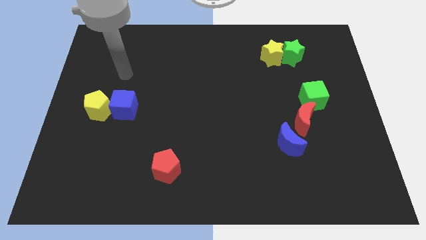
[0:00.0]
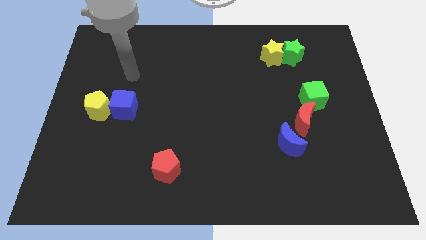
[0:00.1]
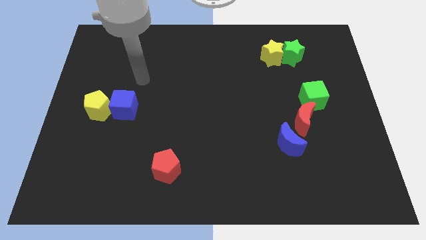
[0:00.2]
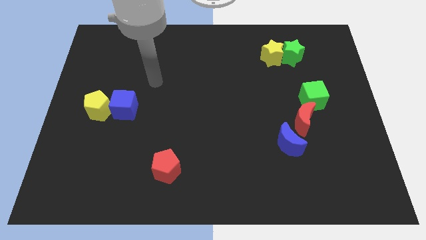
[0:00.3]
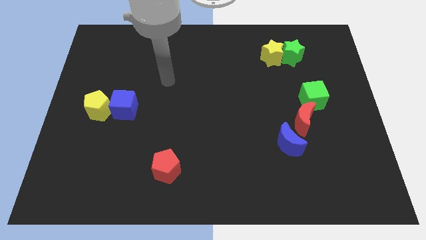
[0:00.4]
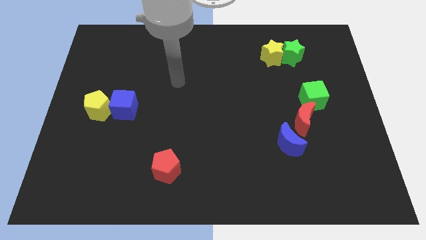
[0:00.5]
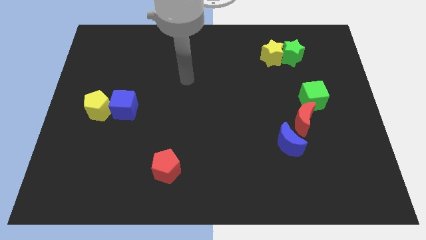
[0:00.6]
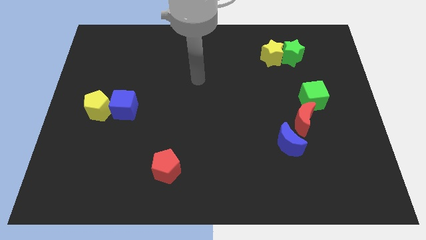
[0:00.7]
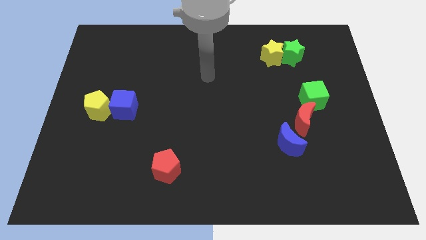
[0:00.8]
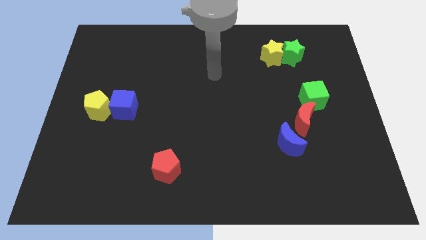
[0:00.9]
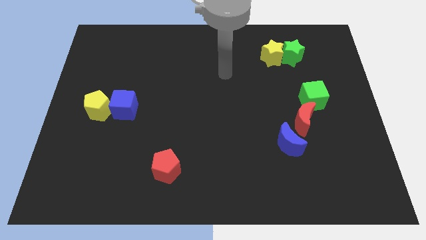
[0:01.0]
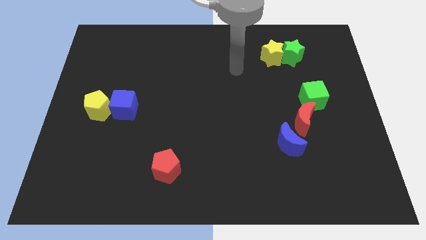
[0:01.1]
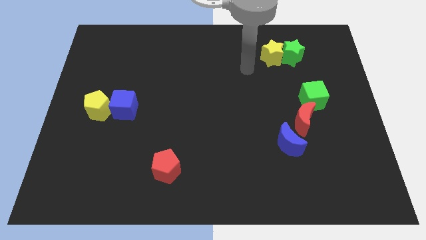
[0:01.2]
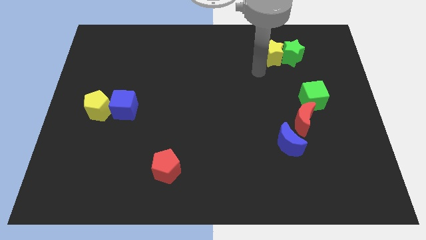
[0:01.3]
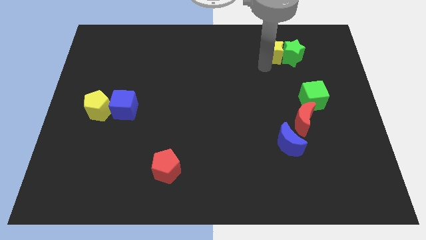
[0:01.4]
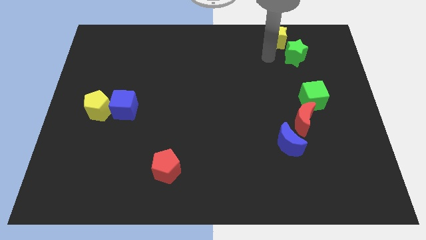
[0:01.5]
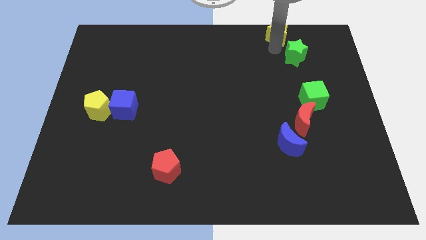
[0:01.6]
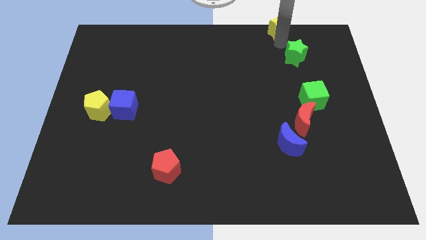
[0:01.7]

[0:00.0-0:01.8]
move the green star away from the yellow star

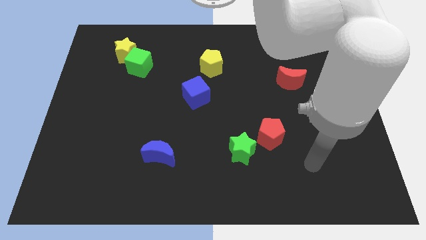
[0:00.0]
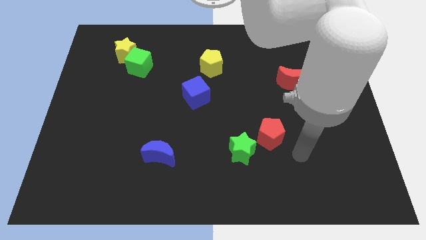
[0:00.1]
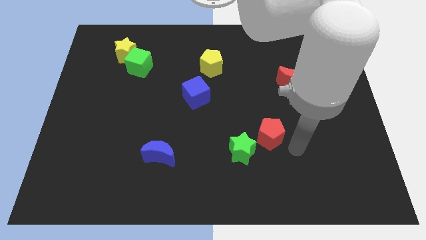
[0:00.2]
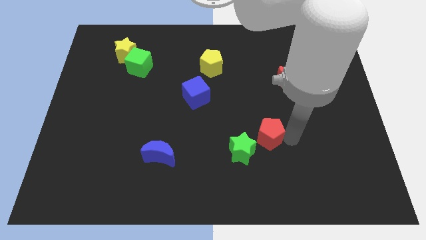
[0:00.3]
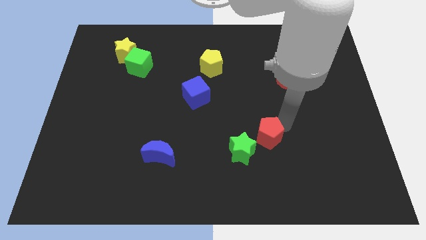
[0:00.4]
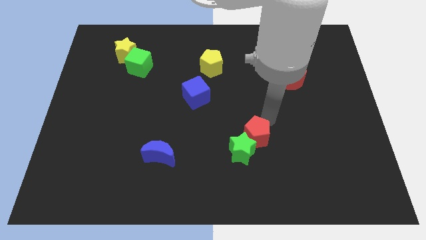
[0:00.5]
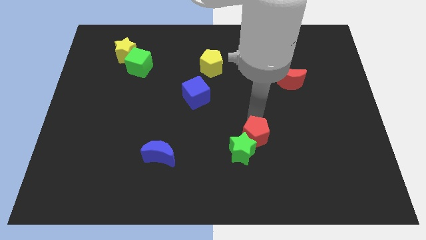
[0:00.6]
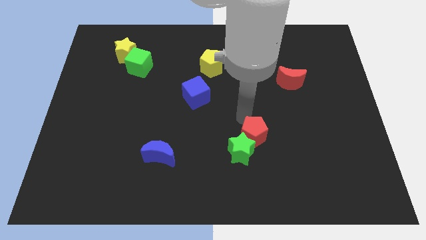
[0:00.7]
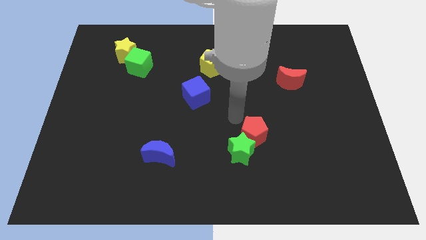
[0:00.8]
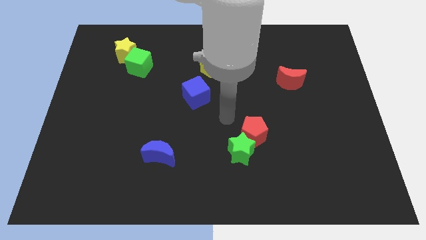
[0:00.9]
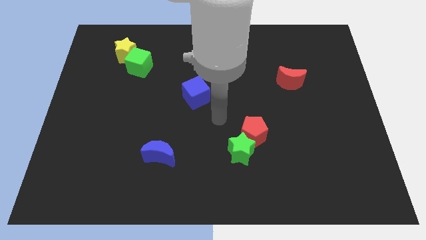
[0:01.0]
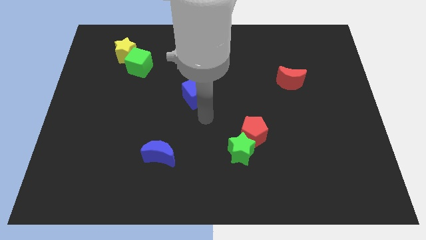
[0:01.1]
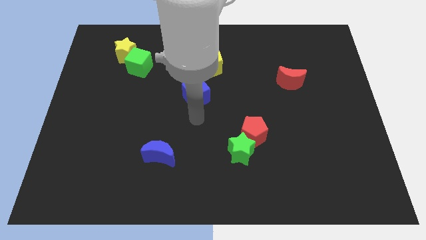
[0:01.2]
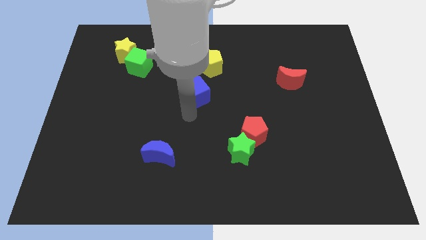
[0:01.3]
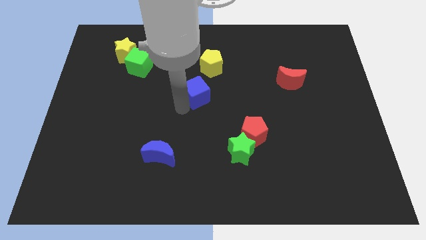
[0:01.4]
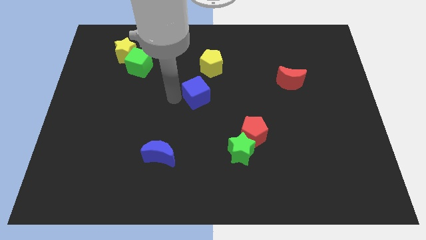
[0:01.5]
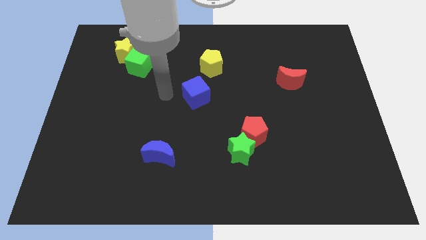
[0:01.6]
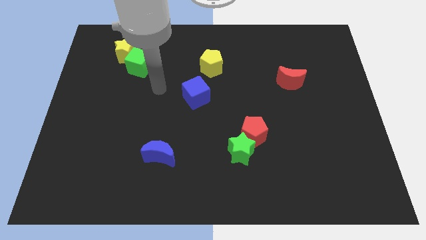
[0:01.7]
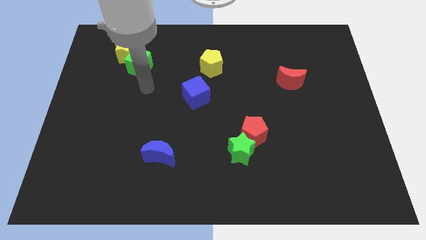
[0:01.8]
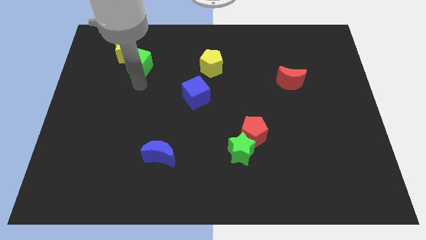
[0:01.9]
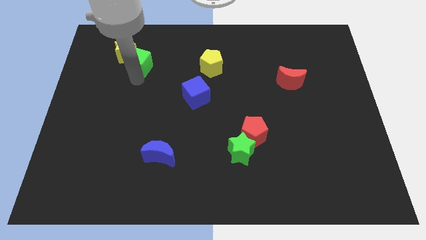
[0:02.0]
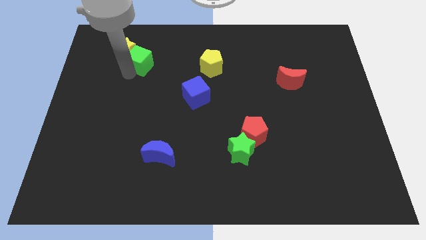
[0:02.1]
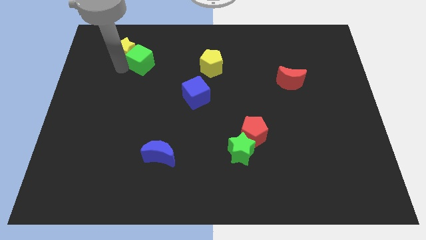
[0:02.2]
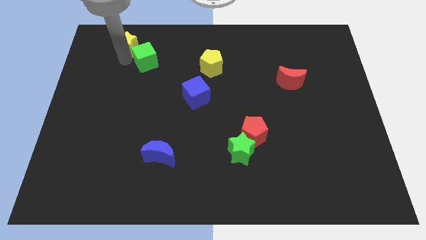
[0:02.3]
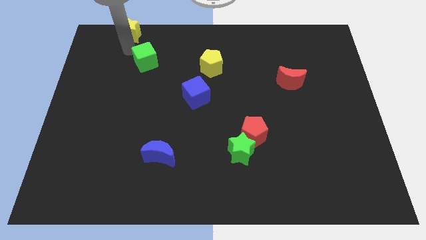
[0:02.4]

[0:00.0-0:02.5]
separate the green cube from the yellow star

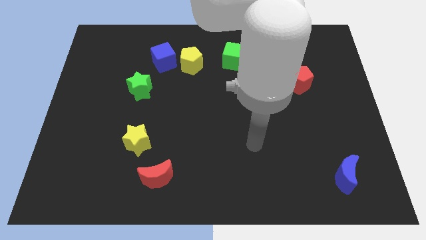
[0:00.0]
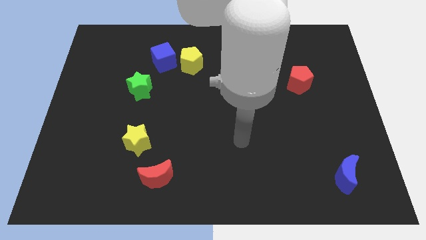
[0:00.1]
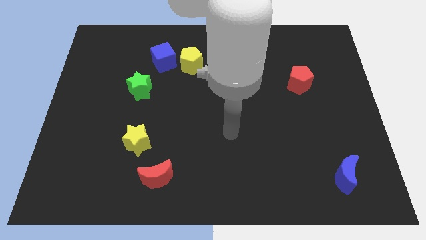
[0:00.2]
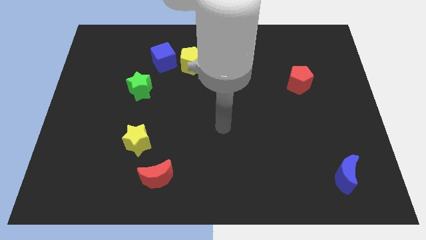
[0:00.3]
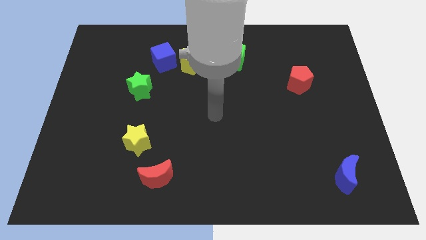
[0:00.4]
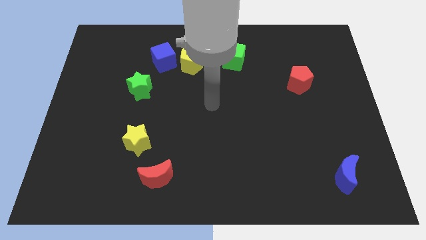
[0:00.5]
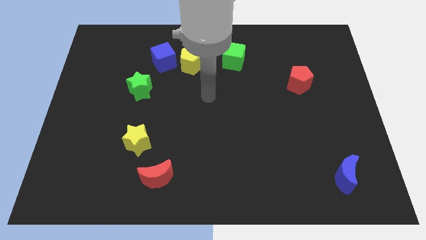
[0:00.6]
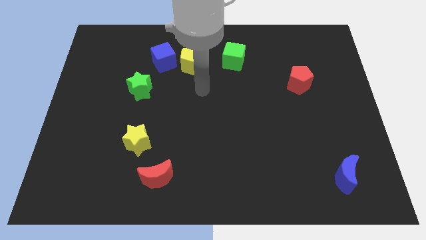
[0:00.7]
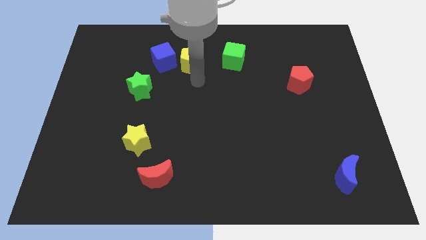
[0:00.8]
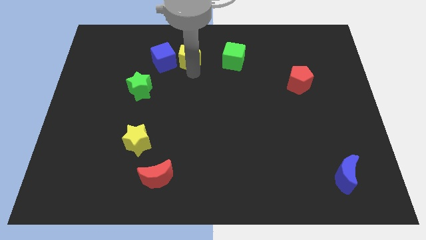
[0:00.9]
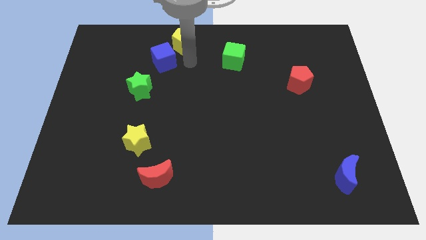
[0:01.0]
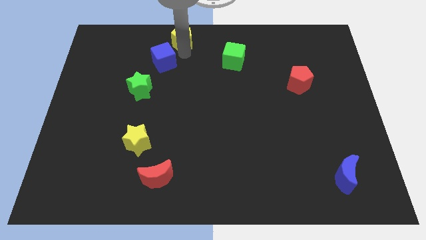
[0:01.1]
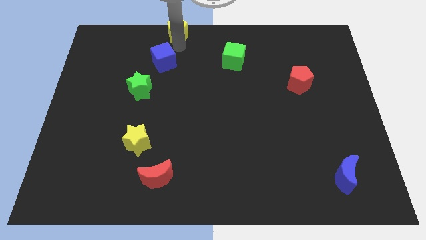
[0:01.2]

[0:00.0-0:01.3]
separate the blue cube from the yellow pentagon

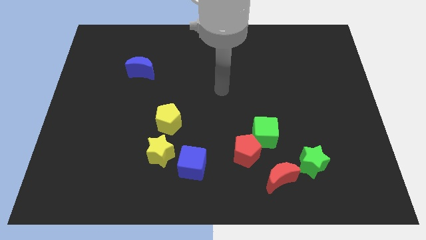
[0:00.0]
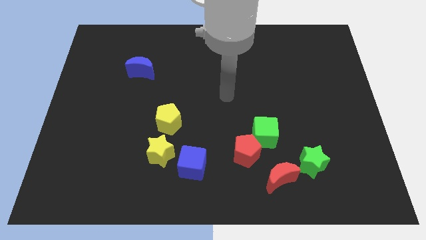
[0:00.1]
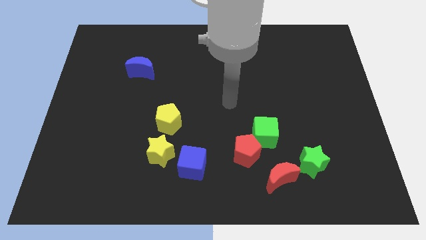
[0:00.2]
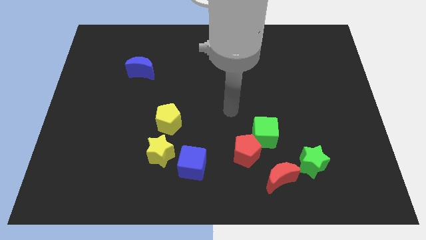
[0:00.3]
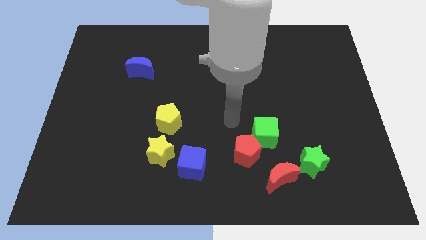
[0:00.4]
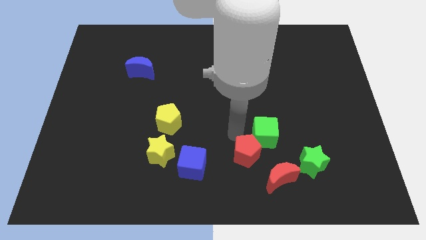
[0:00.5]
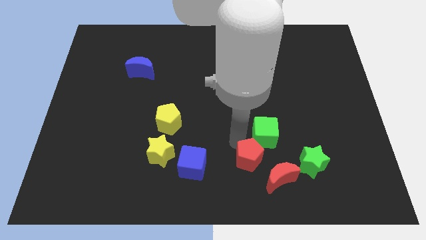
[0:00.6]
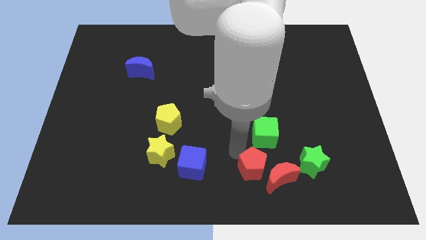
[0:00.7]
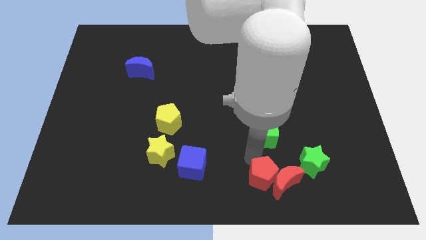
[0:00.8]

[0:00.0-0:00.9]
move the green cube away from the red pentagon

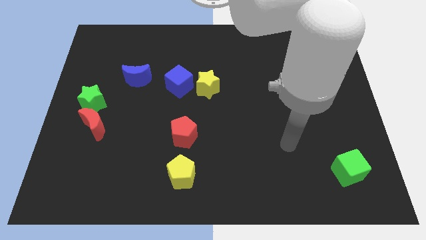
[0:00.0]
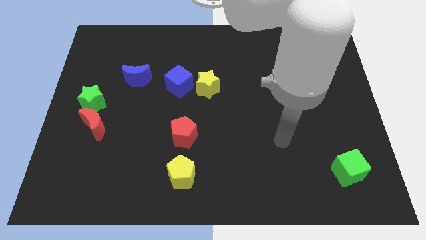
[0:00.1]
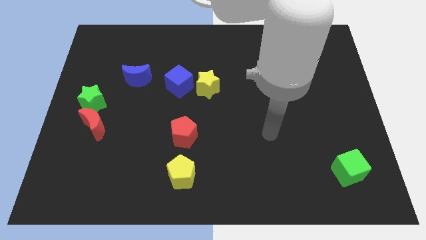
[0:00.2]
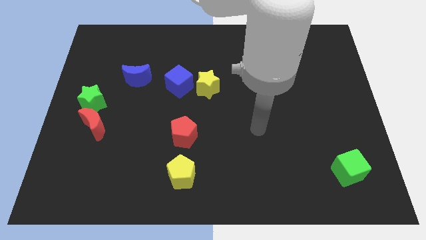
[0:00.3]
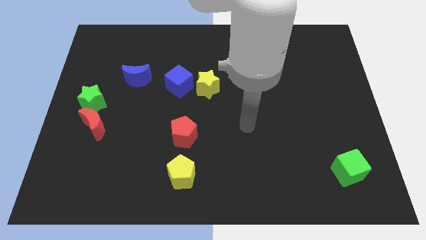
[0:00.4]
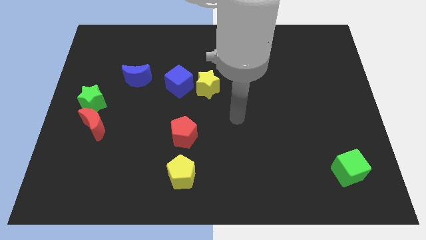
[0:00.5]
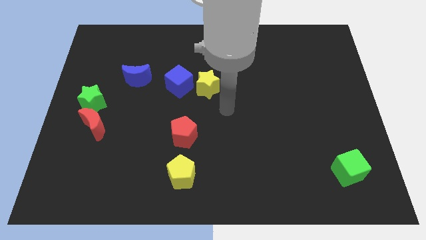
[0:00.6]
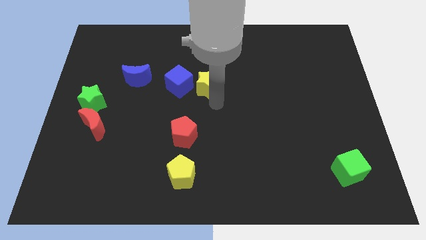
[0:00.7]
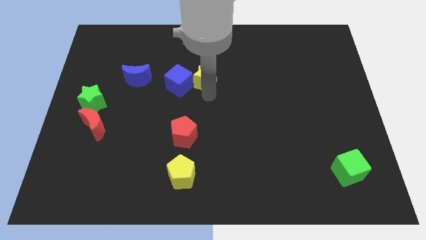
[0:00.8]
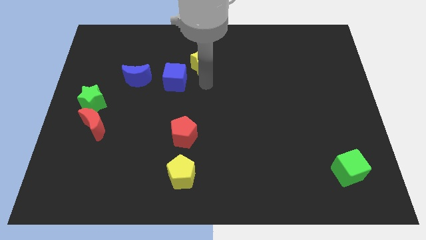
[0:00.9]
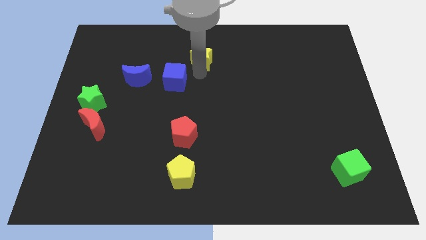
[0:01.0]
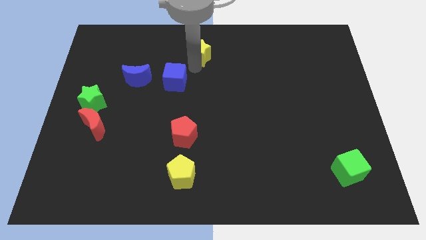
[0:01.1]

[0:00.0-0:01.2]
move the blue cube away from the yellow star

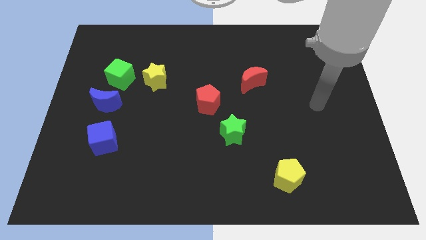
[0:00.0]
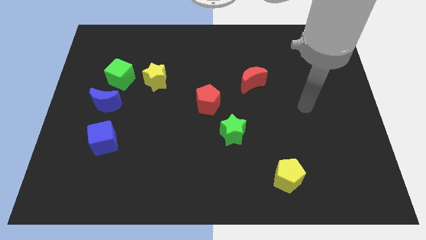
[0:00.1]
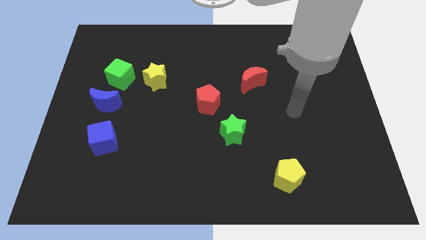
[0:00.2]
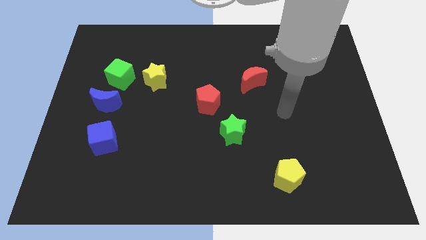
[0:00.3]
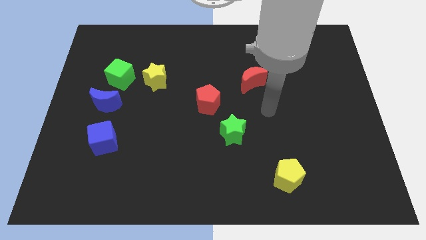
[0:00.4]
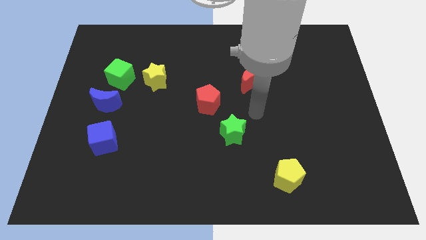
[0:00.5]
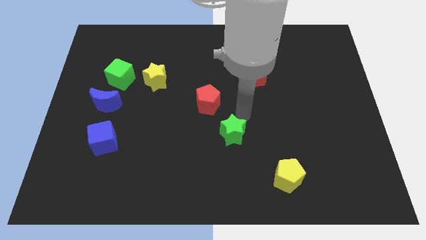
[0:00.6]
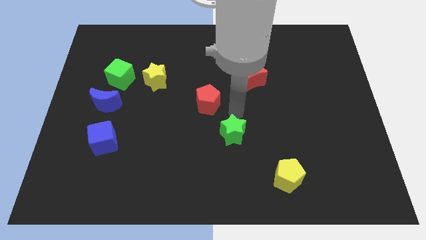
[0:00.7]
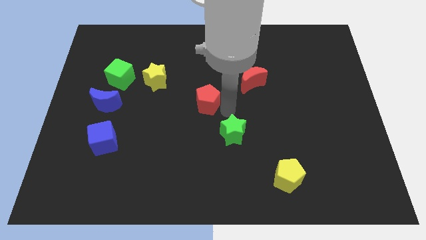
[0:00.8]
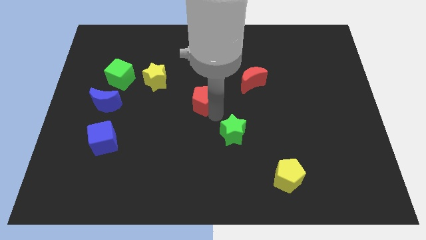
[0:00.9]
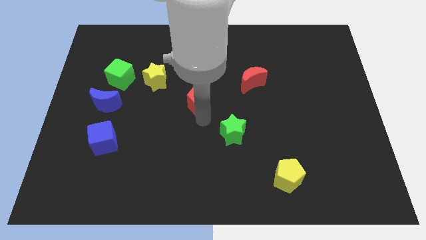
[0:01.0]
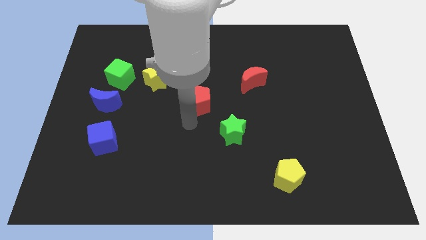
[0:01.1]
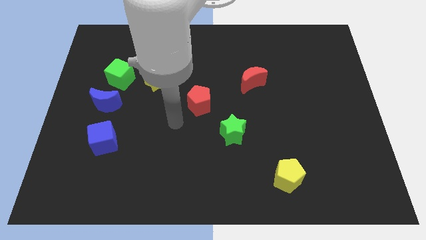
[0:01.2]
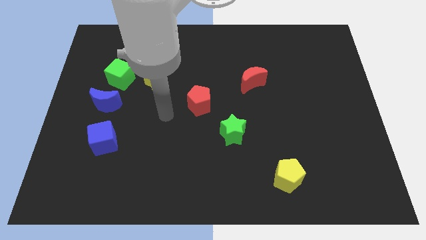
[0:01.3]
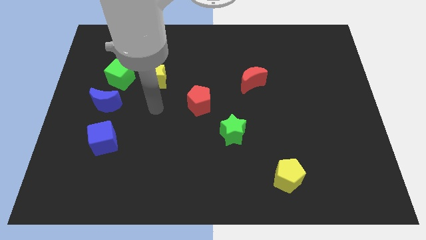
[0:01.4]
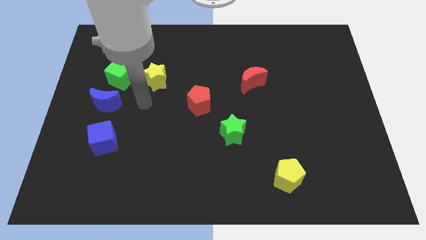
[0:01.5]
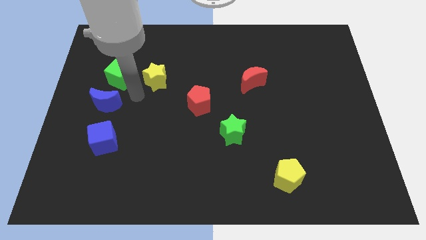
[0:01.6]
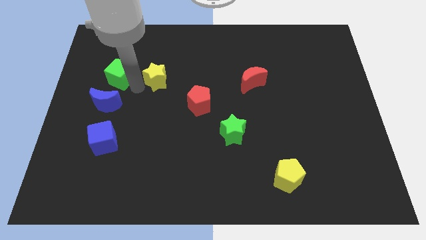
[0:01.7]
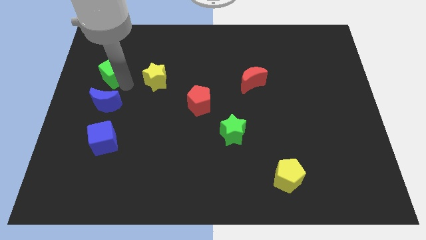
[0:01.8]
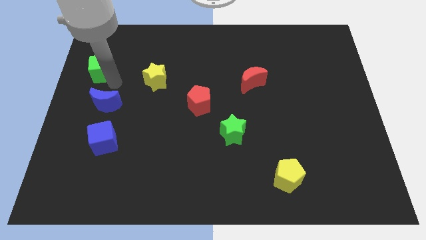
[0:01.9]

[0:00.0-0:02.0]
pull the blue moon apart from the green cube
